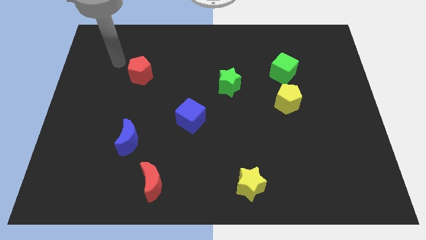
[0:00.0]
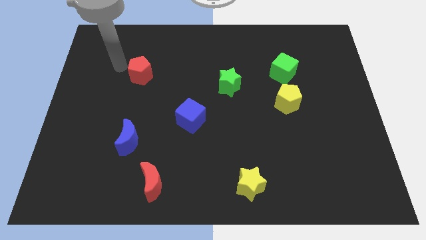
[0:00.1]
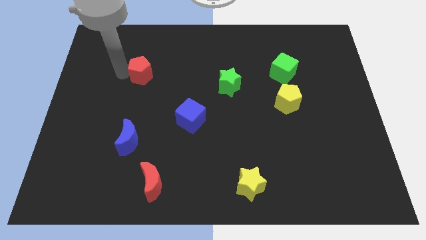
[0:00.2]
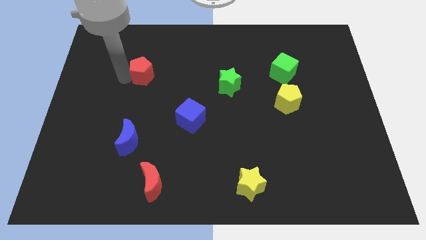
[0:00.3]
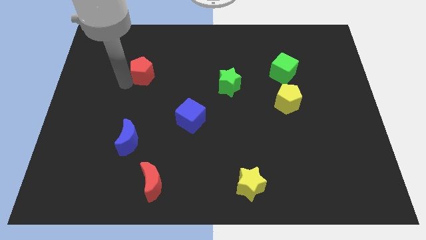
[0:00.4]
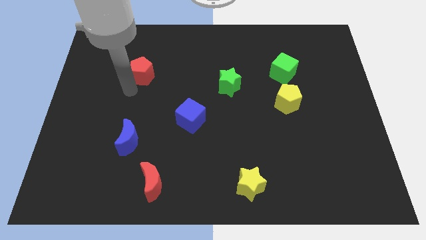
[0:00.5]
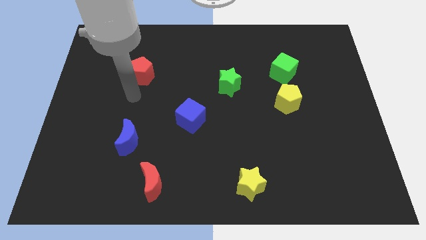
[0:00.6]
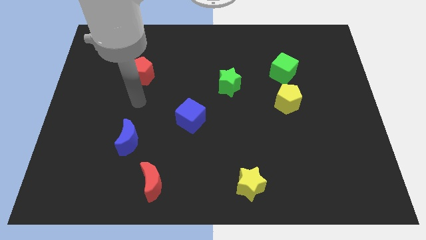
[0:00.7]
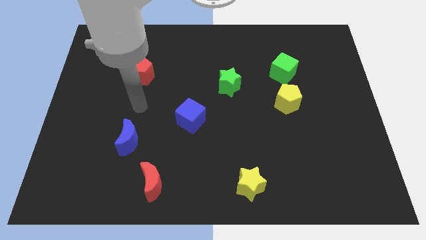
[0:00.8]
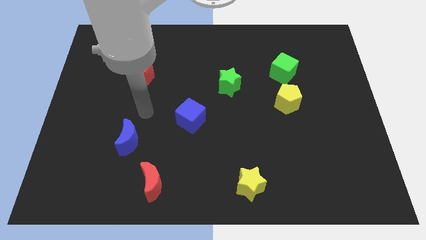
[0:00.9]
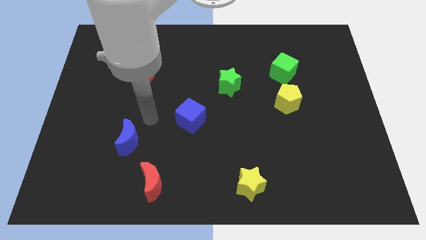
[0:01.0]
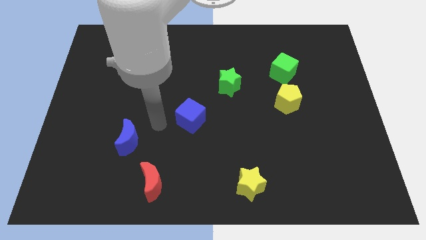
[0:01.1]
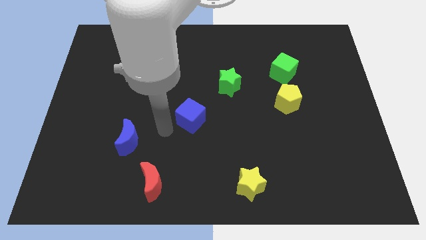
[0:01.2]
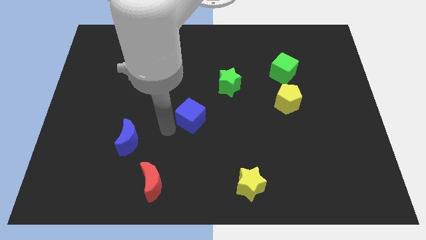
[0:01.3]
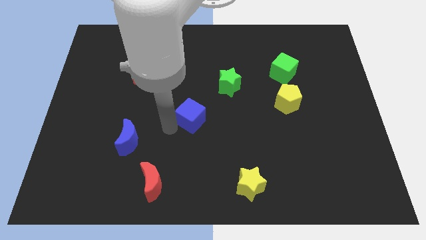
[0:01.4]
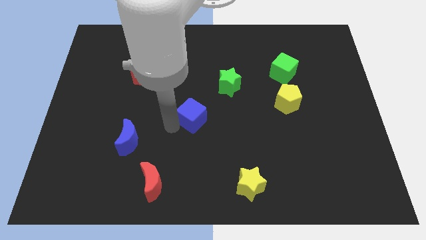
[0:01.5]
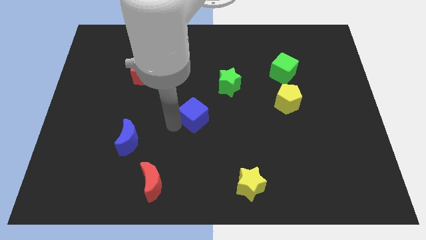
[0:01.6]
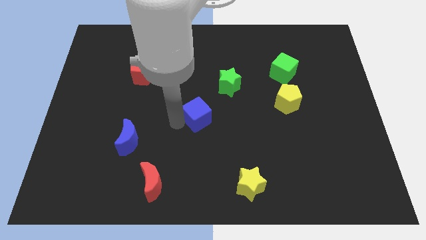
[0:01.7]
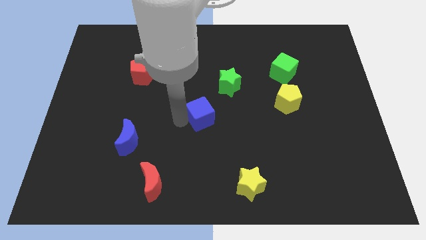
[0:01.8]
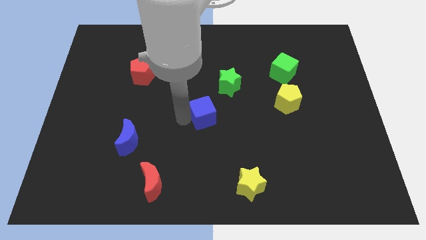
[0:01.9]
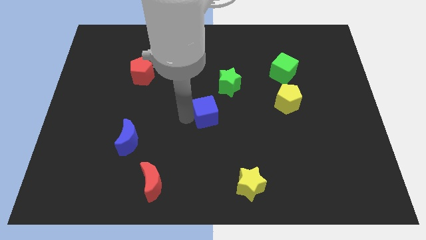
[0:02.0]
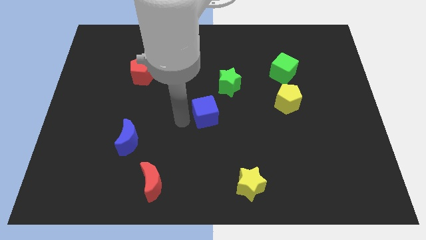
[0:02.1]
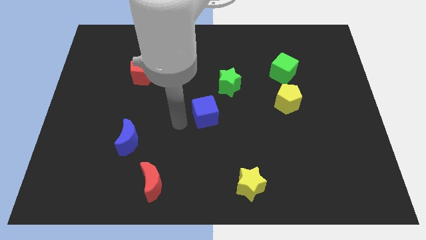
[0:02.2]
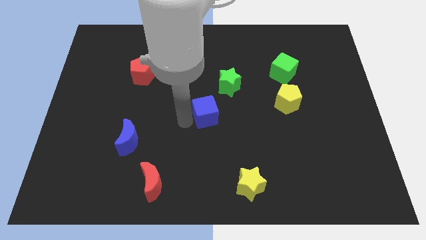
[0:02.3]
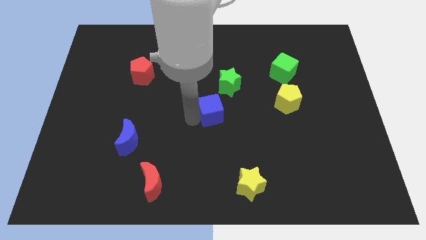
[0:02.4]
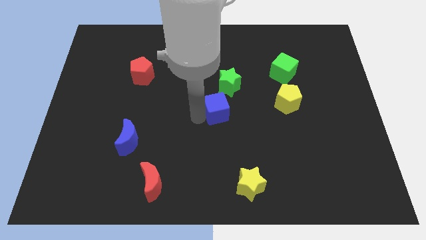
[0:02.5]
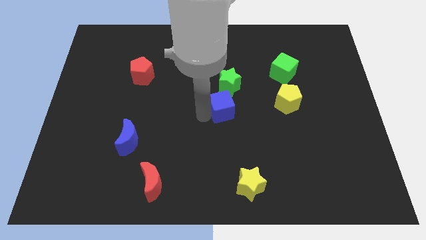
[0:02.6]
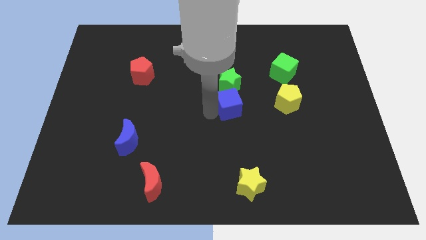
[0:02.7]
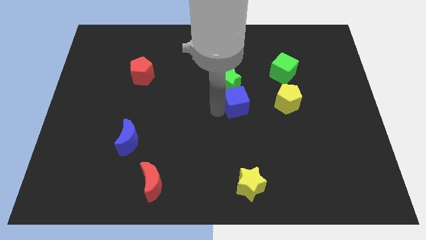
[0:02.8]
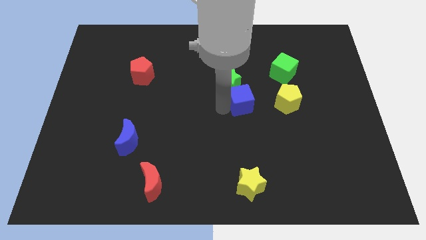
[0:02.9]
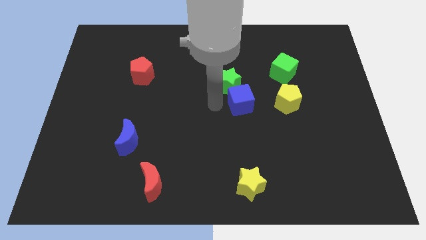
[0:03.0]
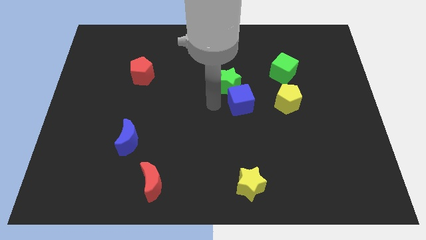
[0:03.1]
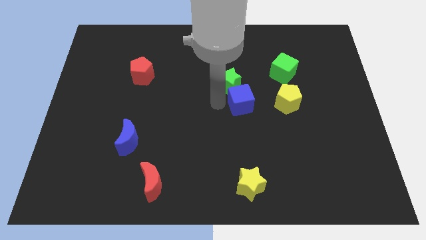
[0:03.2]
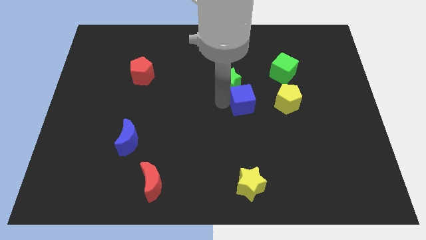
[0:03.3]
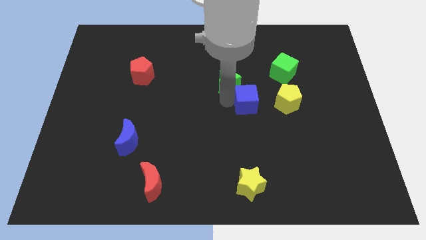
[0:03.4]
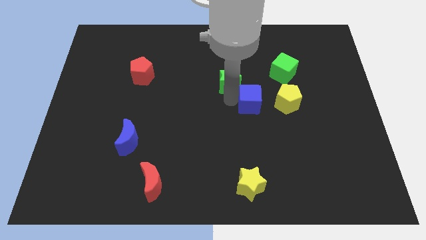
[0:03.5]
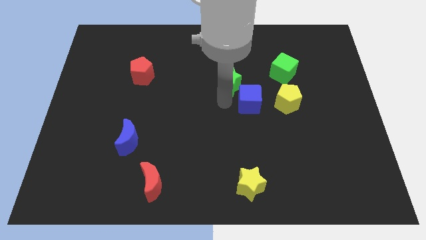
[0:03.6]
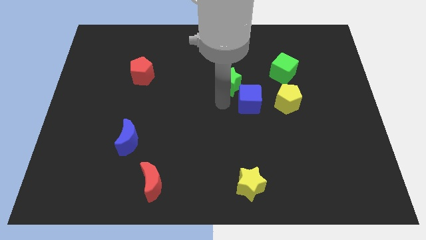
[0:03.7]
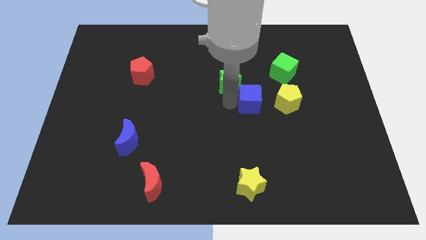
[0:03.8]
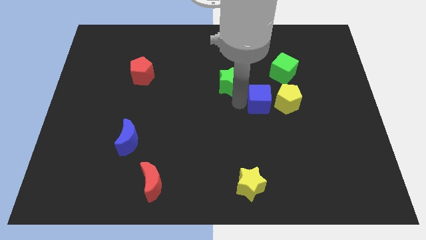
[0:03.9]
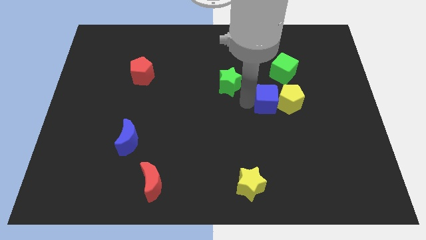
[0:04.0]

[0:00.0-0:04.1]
move the blue cube to the yellow pentagon

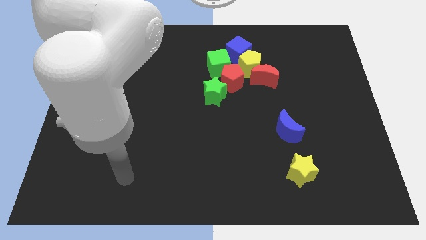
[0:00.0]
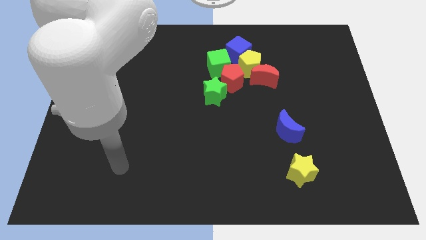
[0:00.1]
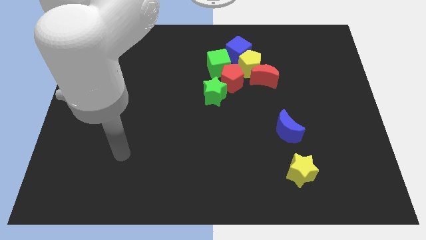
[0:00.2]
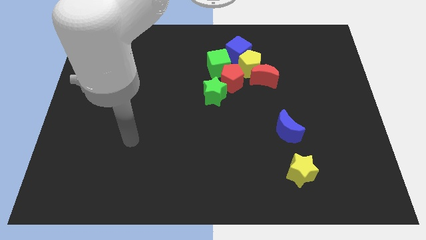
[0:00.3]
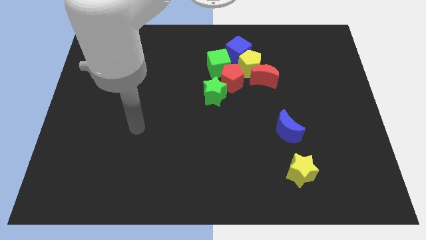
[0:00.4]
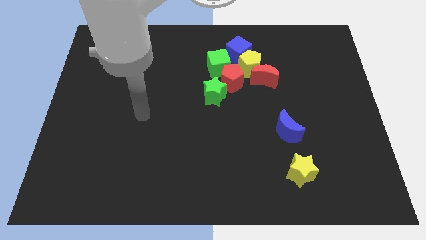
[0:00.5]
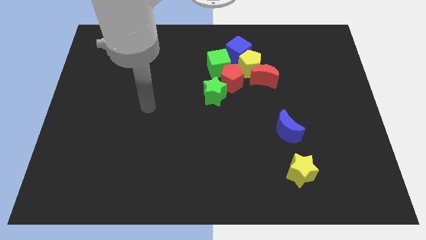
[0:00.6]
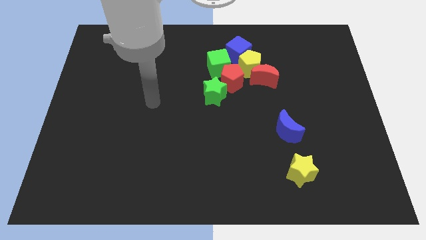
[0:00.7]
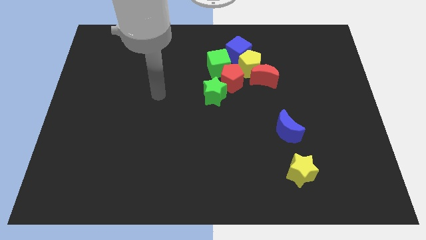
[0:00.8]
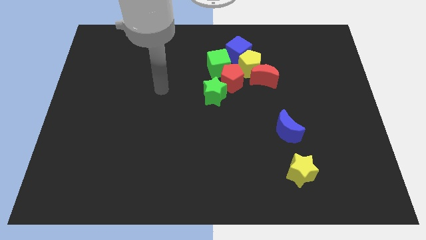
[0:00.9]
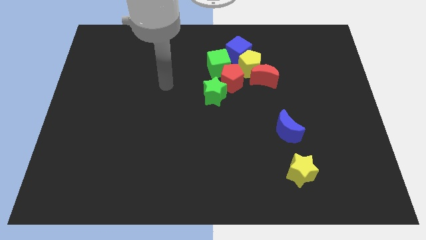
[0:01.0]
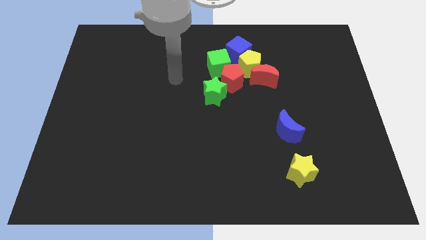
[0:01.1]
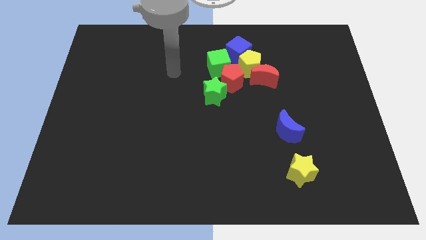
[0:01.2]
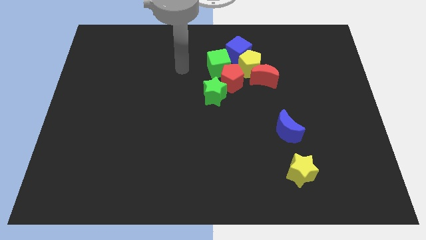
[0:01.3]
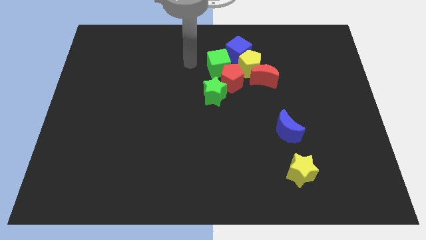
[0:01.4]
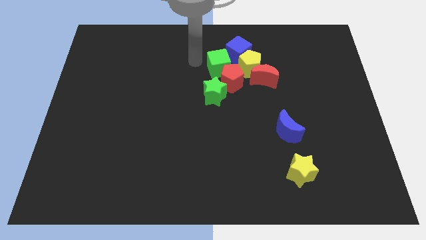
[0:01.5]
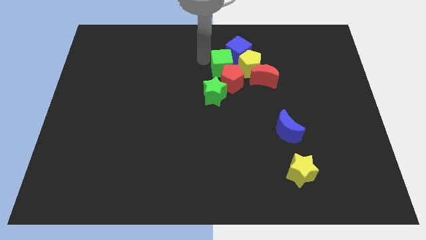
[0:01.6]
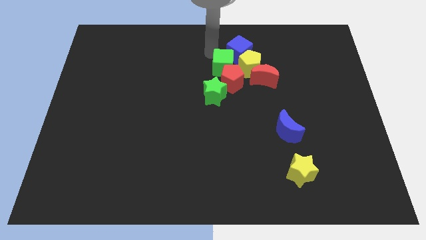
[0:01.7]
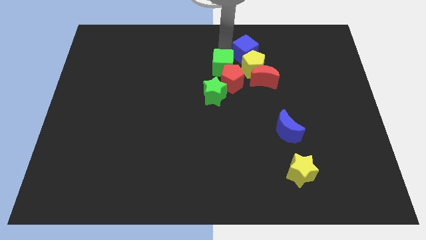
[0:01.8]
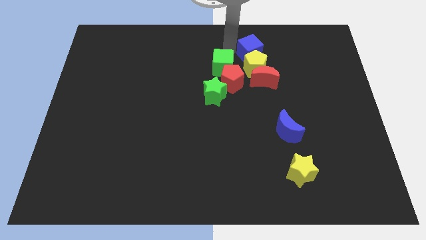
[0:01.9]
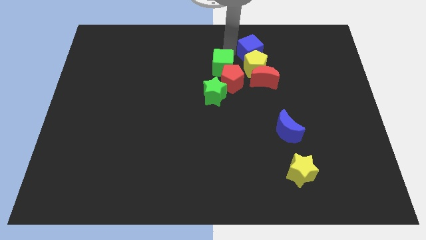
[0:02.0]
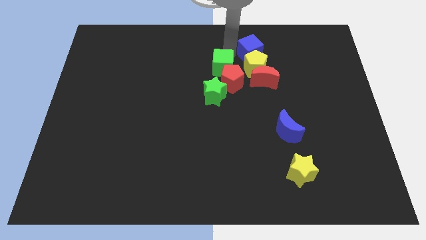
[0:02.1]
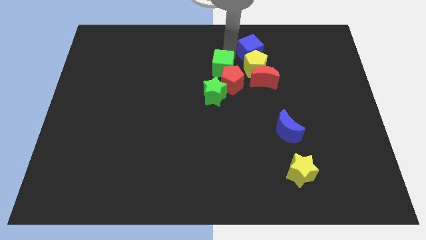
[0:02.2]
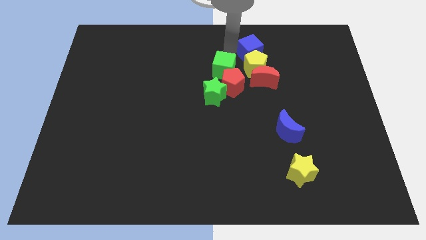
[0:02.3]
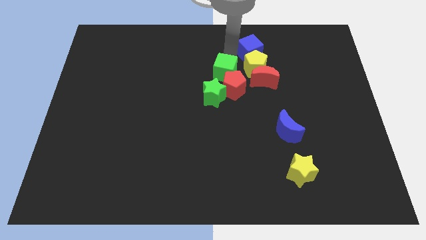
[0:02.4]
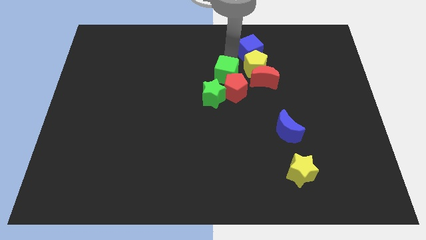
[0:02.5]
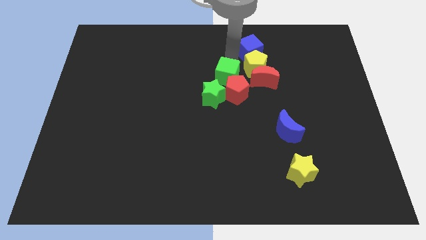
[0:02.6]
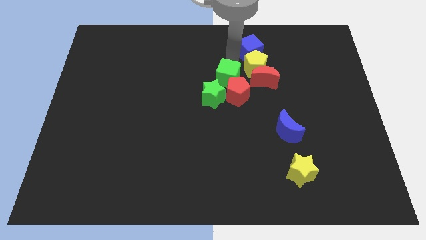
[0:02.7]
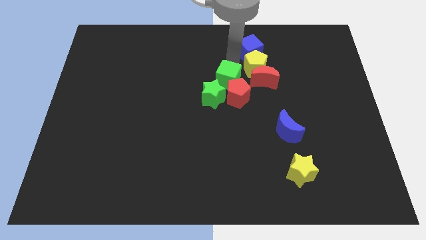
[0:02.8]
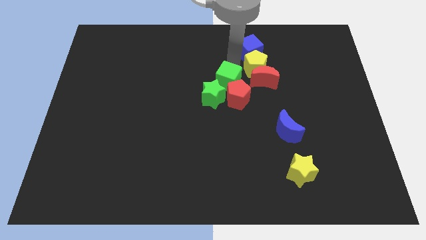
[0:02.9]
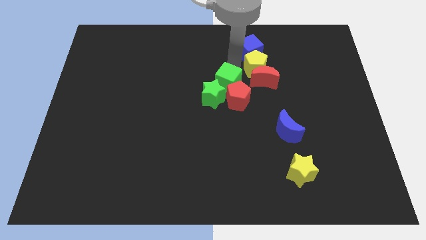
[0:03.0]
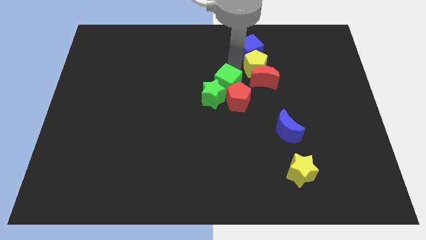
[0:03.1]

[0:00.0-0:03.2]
put the green cube close to the green star

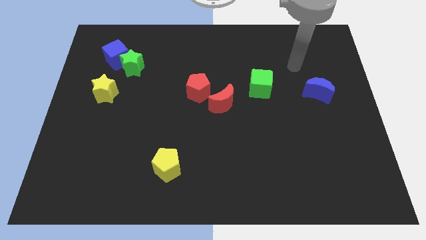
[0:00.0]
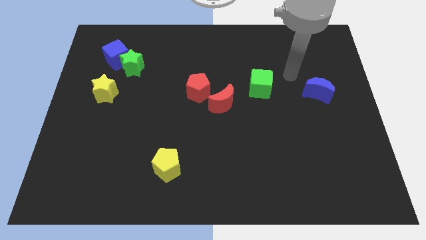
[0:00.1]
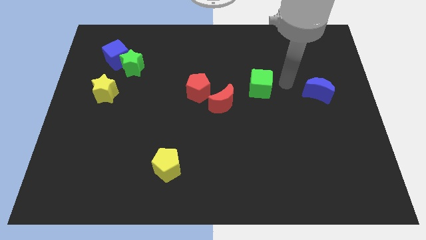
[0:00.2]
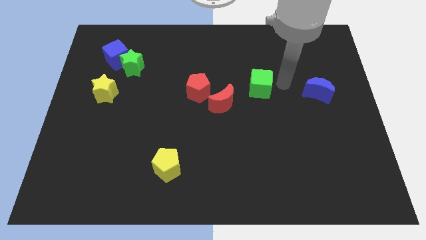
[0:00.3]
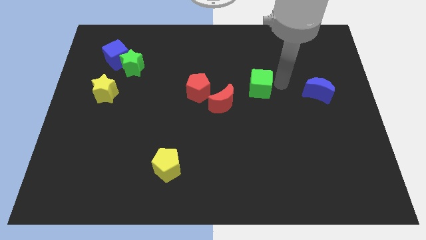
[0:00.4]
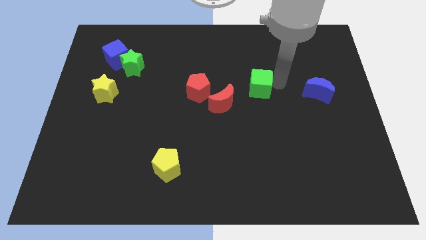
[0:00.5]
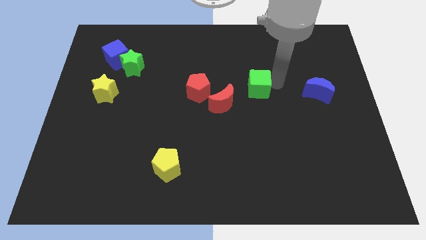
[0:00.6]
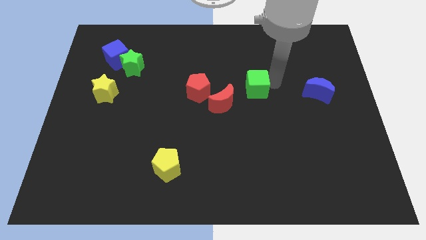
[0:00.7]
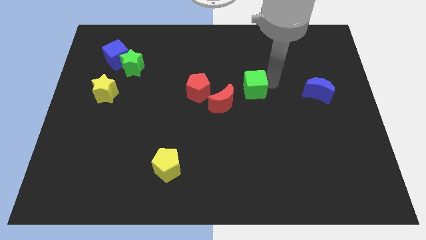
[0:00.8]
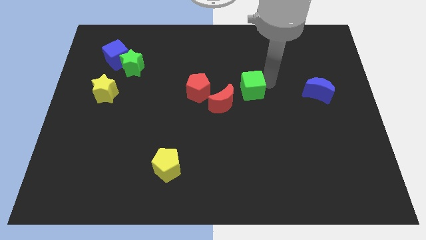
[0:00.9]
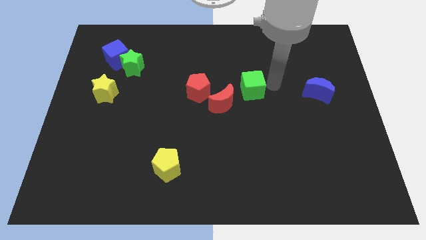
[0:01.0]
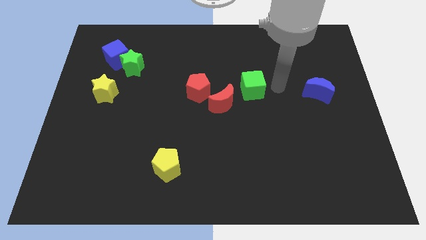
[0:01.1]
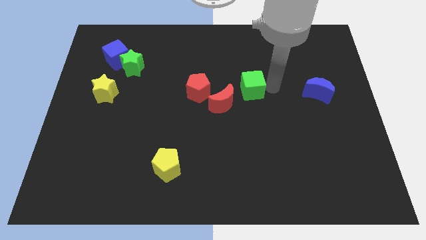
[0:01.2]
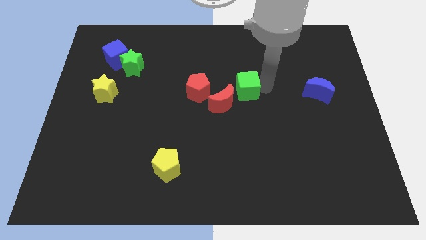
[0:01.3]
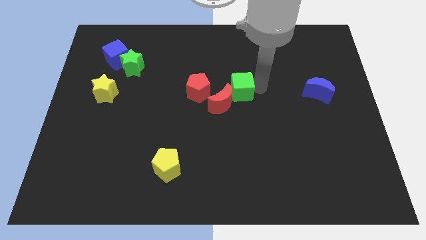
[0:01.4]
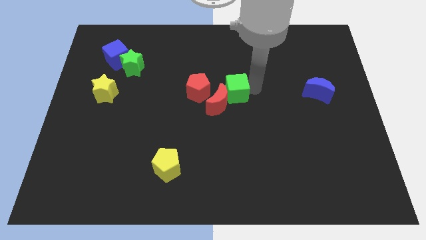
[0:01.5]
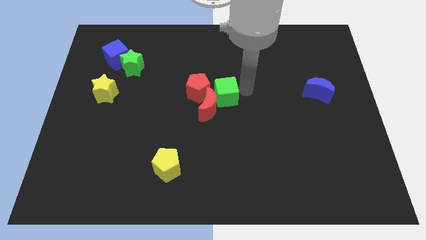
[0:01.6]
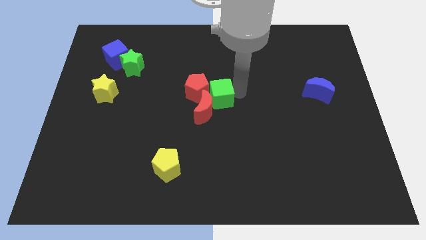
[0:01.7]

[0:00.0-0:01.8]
put the green cube close to the red pentagon
